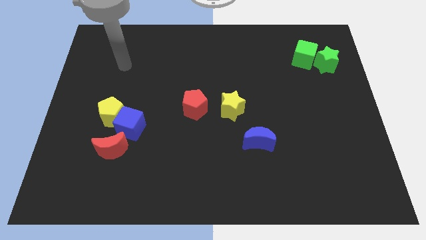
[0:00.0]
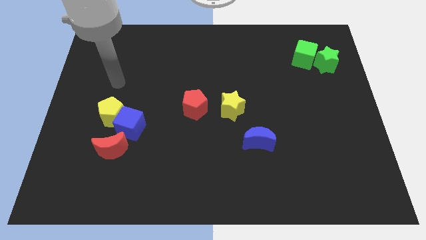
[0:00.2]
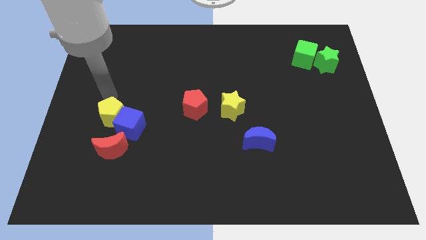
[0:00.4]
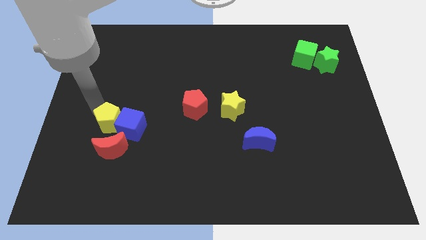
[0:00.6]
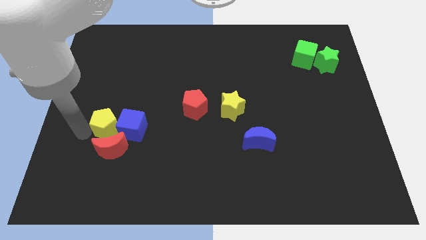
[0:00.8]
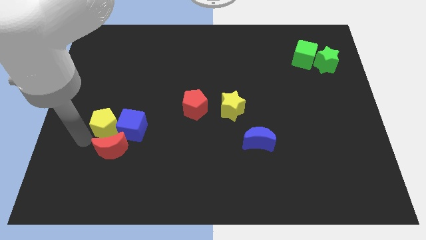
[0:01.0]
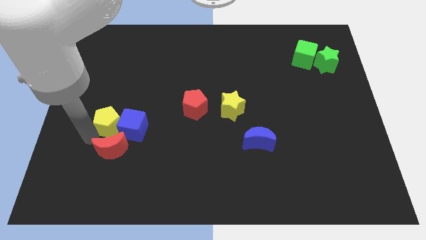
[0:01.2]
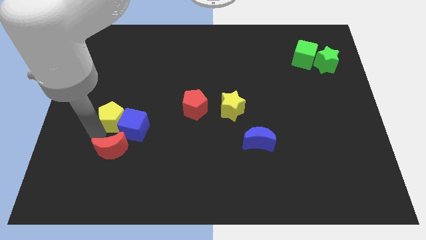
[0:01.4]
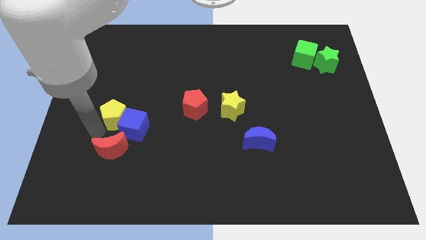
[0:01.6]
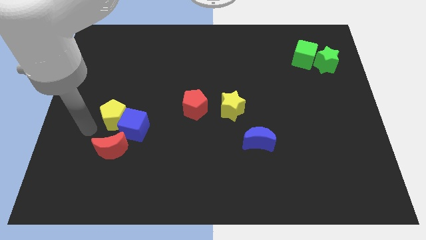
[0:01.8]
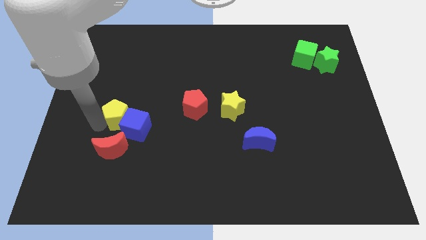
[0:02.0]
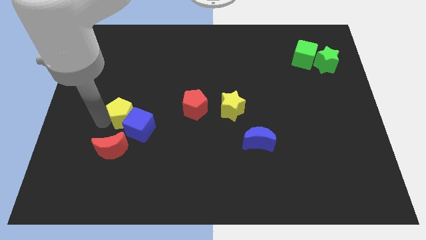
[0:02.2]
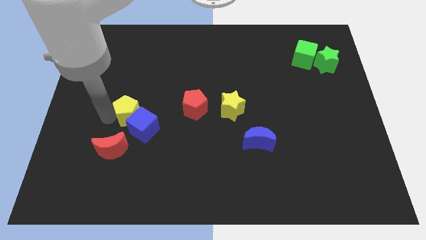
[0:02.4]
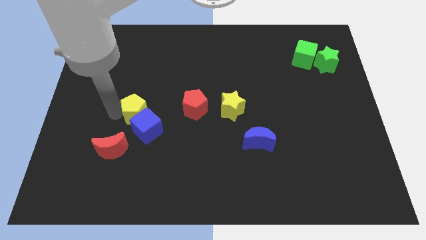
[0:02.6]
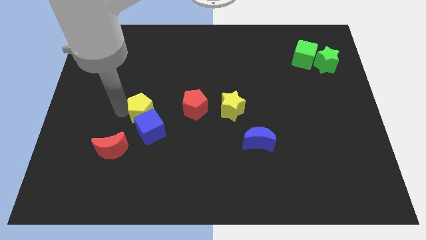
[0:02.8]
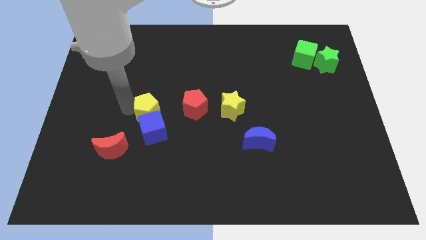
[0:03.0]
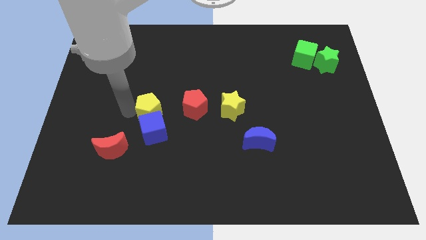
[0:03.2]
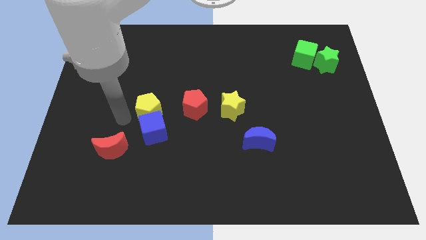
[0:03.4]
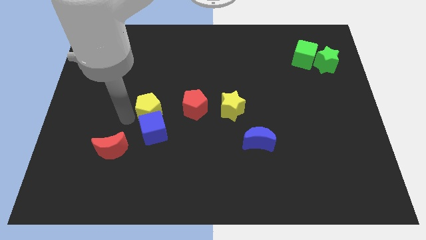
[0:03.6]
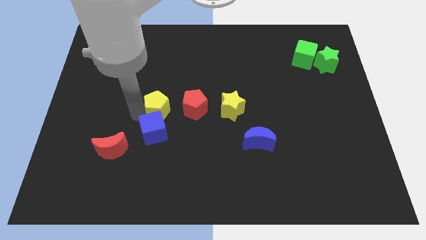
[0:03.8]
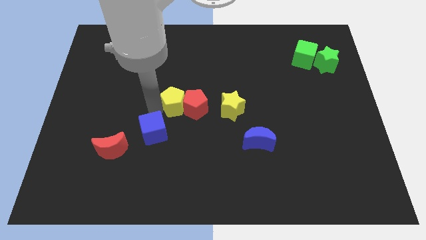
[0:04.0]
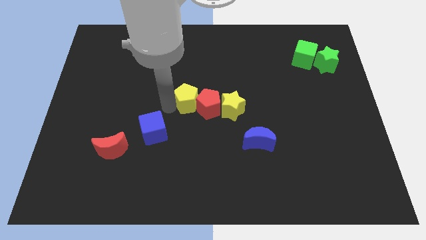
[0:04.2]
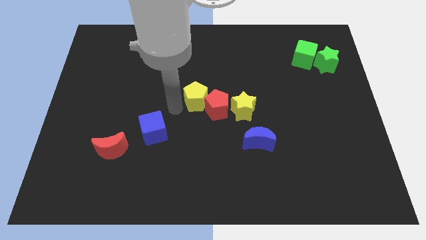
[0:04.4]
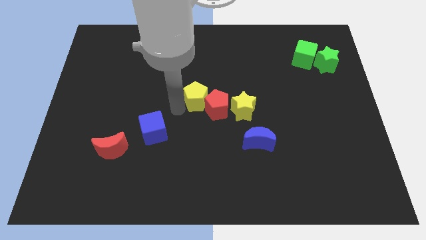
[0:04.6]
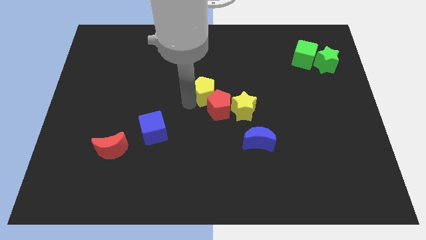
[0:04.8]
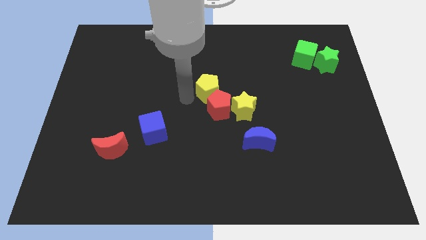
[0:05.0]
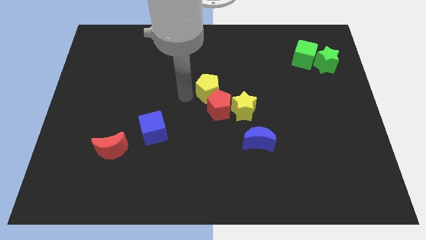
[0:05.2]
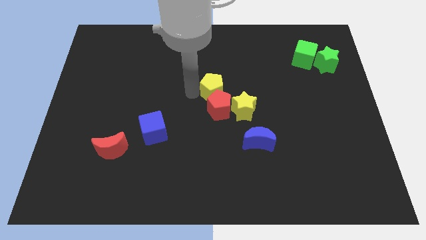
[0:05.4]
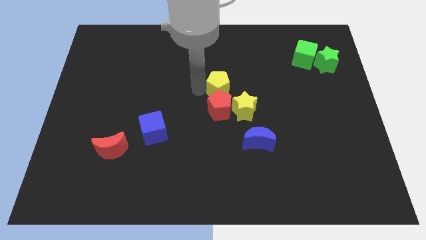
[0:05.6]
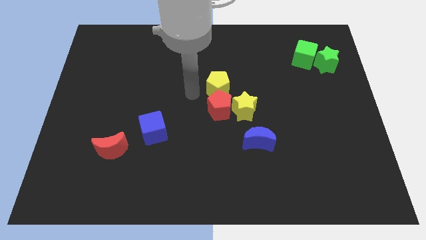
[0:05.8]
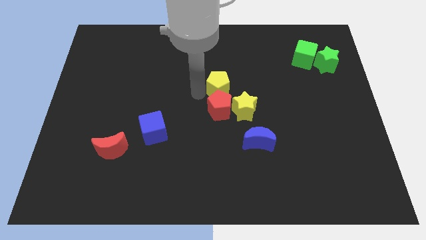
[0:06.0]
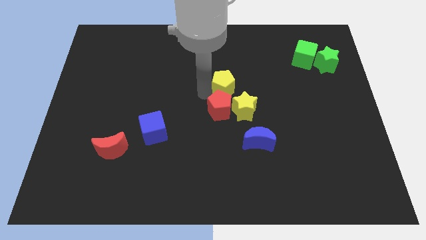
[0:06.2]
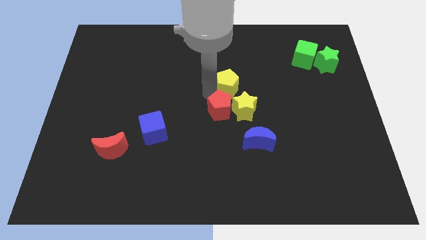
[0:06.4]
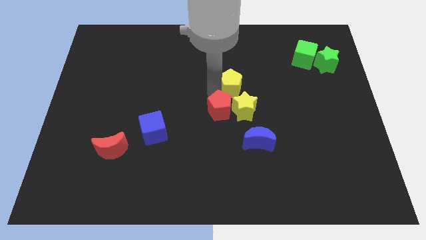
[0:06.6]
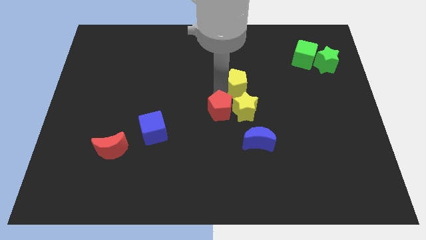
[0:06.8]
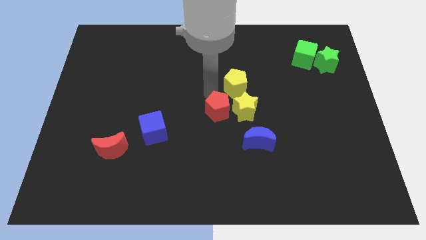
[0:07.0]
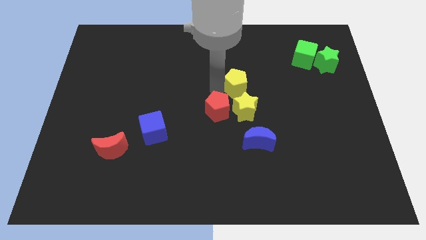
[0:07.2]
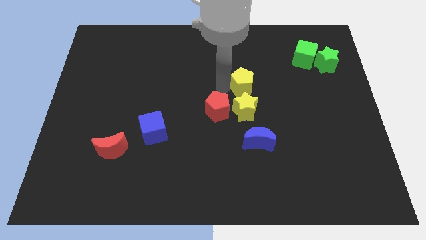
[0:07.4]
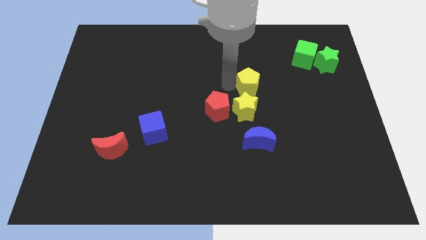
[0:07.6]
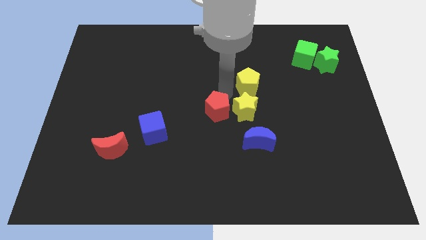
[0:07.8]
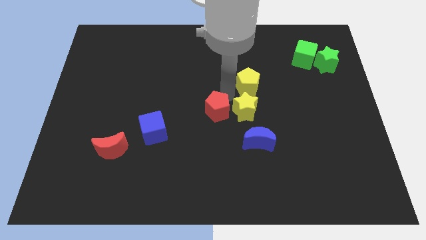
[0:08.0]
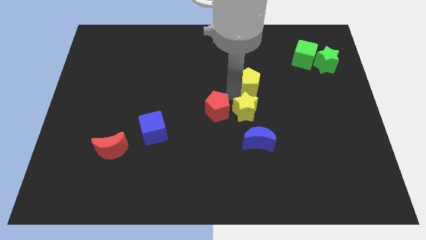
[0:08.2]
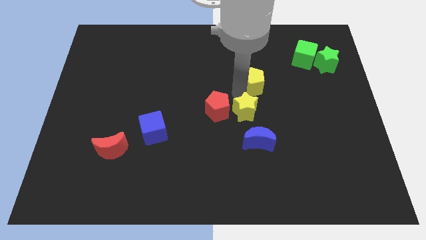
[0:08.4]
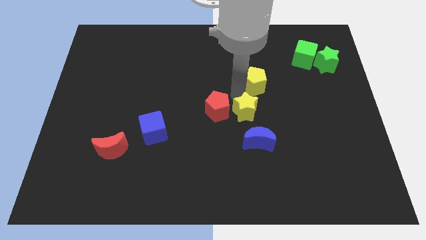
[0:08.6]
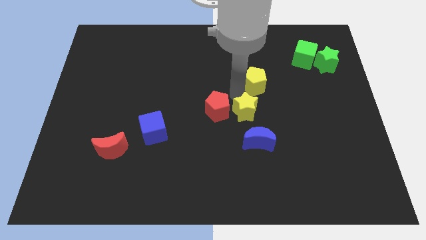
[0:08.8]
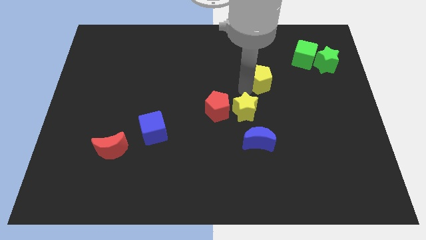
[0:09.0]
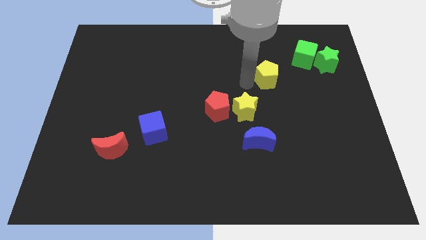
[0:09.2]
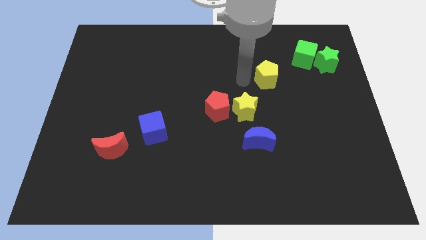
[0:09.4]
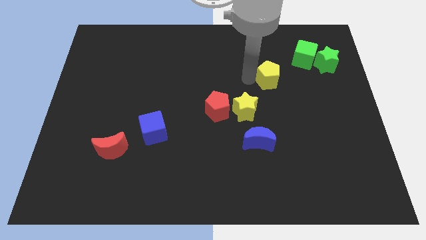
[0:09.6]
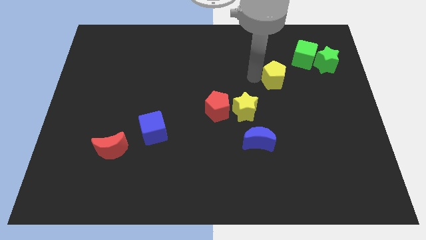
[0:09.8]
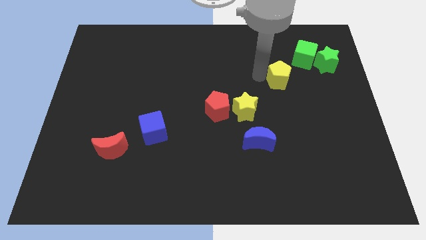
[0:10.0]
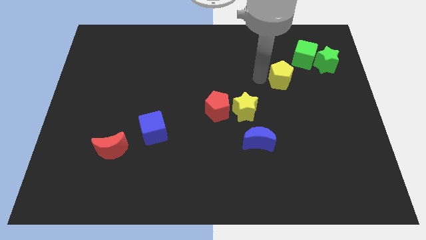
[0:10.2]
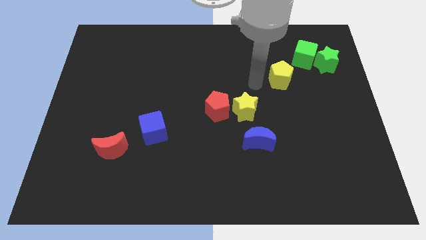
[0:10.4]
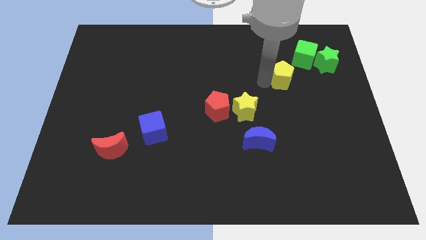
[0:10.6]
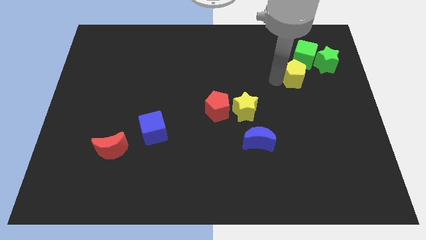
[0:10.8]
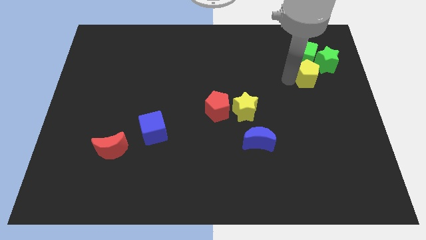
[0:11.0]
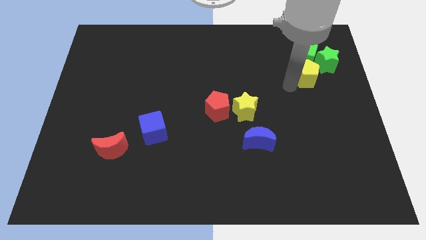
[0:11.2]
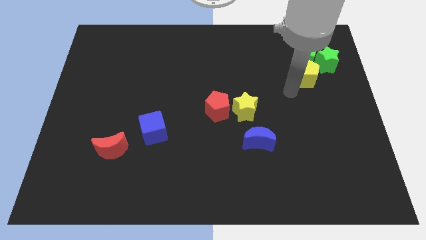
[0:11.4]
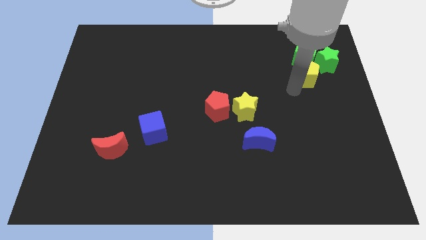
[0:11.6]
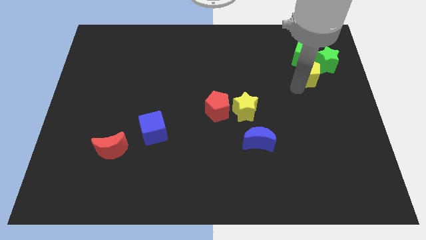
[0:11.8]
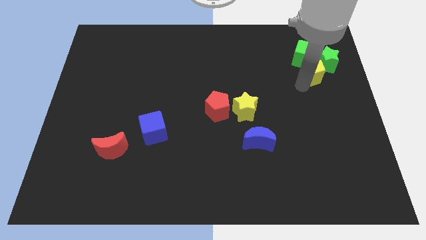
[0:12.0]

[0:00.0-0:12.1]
slide the yellow pentagon close to the green star

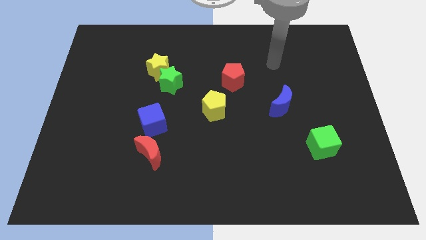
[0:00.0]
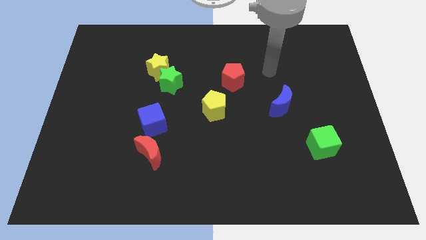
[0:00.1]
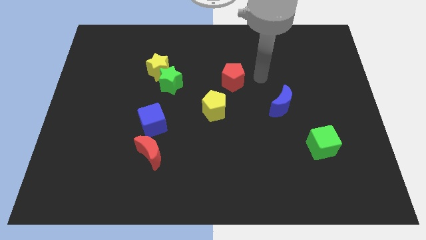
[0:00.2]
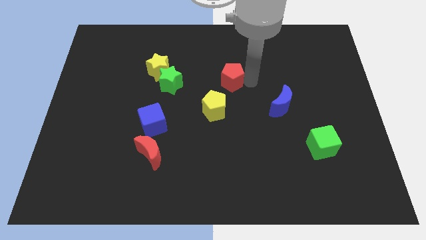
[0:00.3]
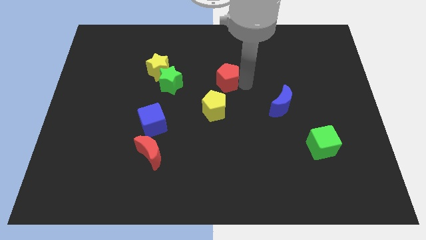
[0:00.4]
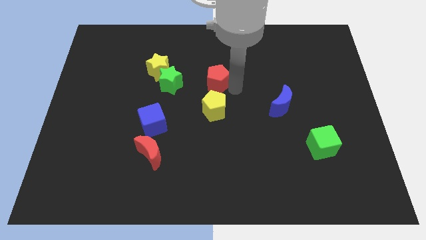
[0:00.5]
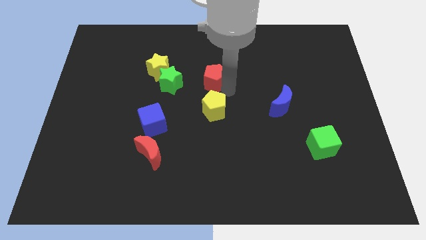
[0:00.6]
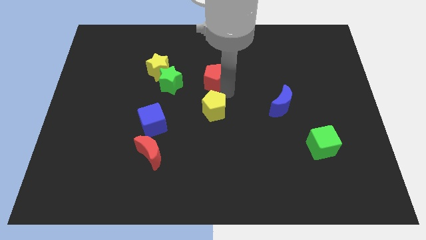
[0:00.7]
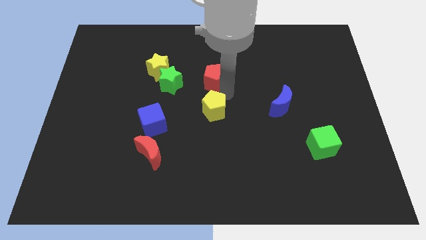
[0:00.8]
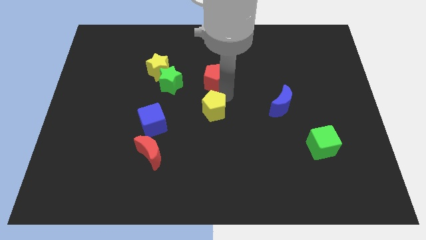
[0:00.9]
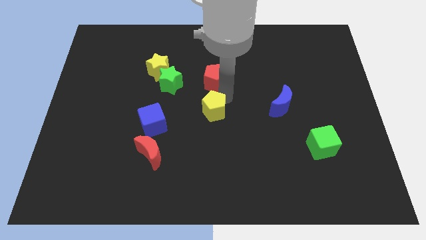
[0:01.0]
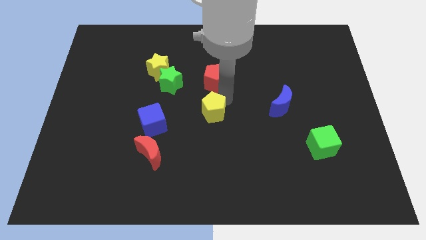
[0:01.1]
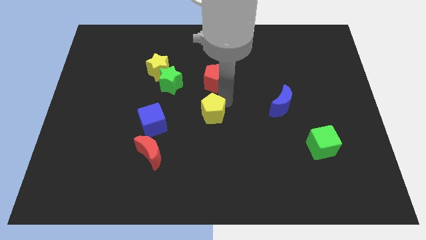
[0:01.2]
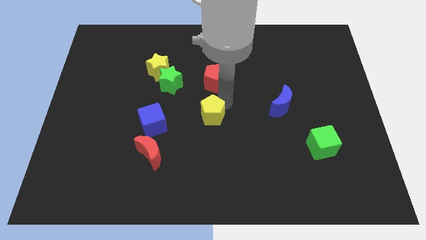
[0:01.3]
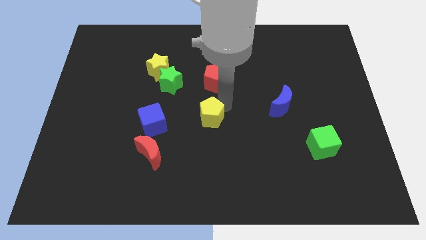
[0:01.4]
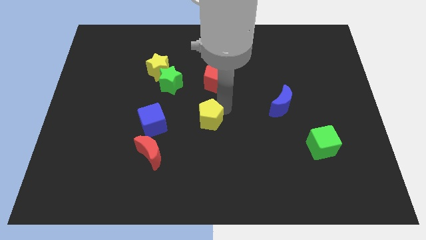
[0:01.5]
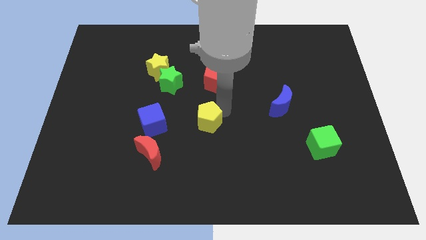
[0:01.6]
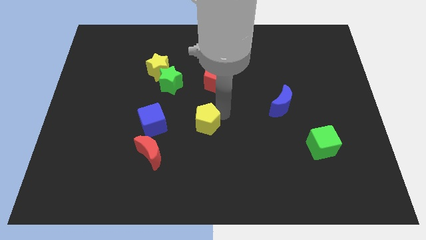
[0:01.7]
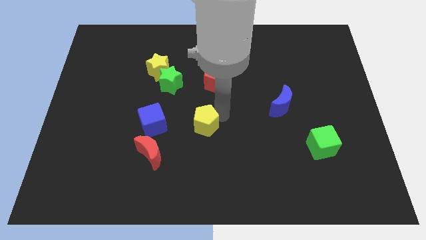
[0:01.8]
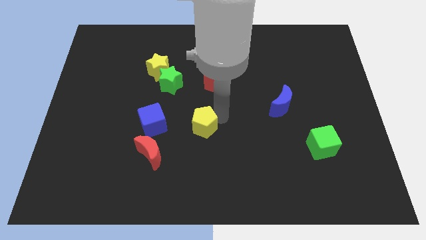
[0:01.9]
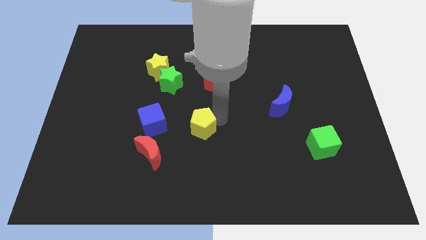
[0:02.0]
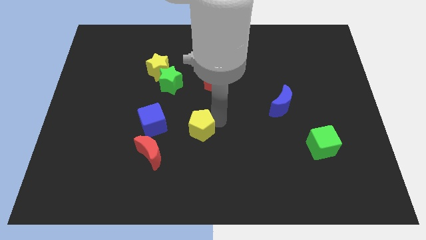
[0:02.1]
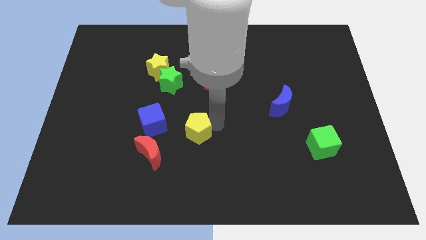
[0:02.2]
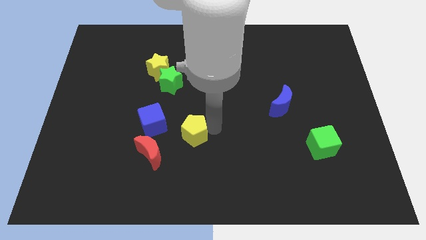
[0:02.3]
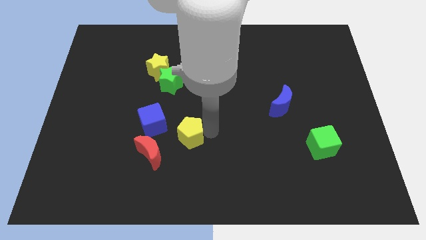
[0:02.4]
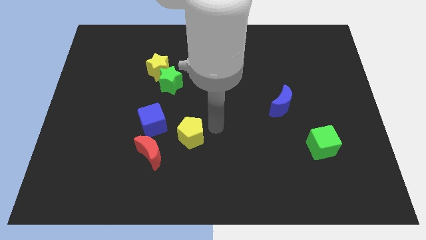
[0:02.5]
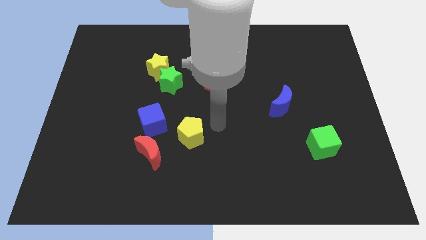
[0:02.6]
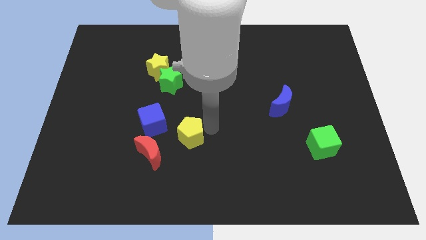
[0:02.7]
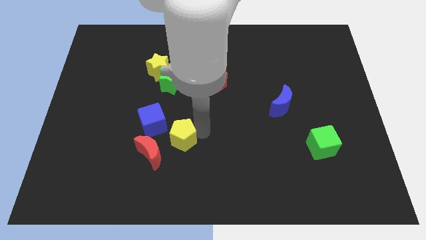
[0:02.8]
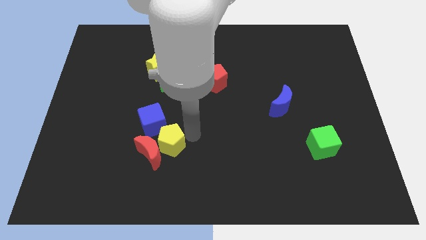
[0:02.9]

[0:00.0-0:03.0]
move the yellow pentagon next to the red moon
